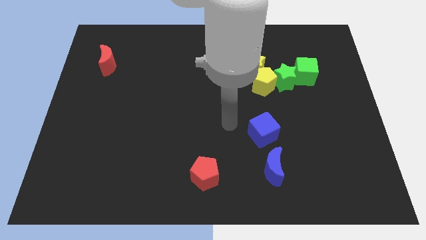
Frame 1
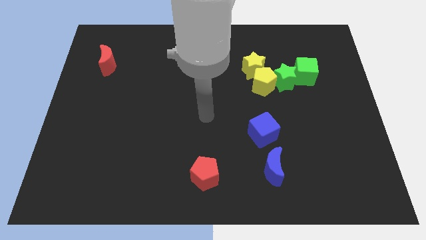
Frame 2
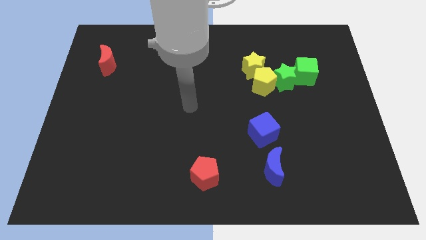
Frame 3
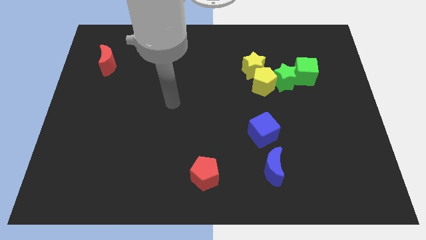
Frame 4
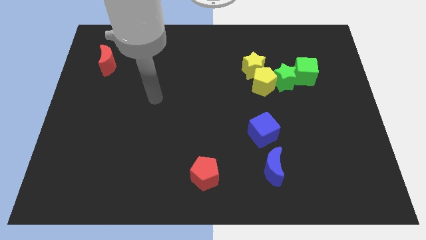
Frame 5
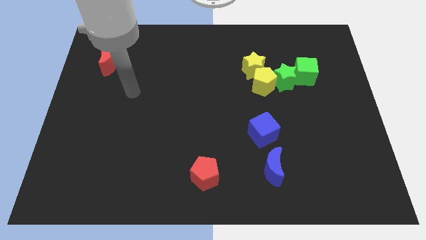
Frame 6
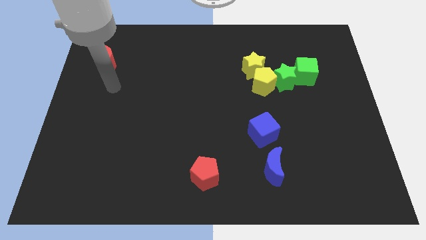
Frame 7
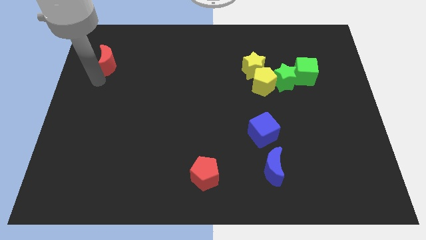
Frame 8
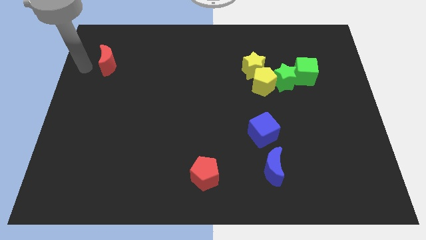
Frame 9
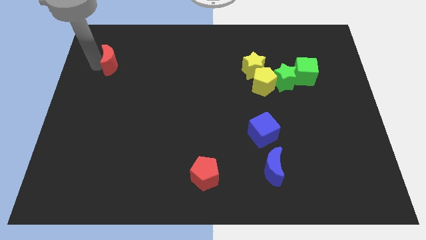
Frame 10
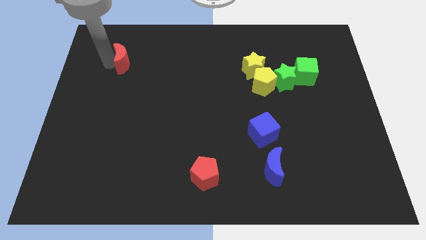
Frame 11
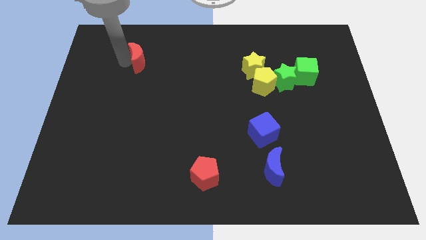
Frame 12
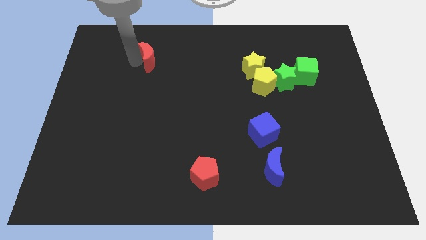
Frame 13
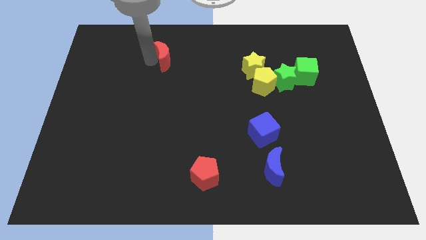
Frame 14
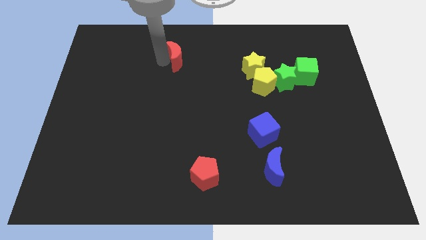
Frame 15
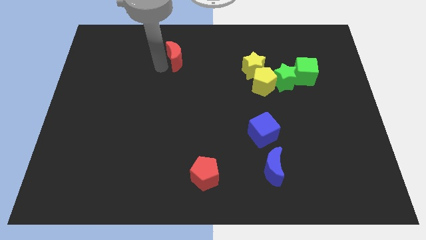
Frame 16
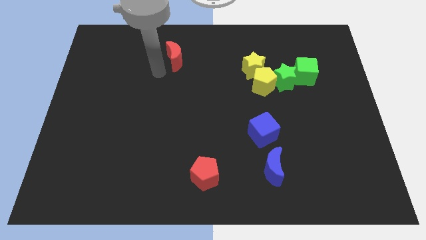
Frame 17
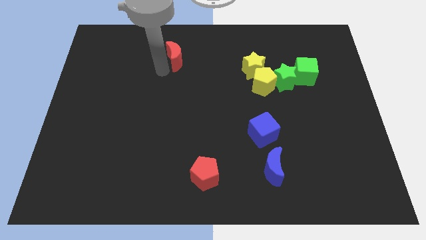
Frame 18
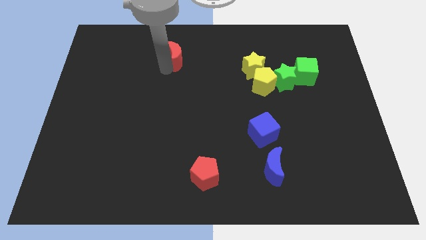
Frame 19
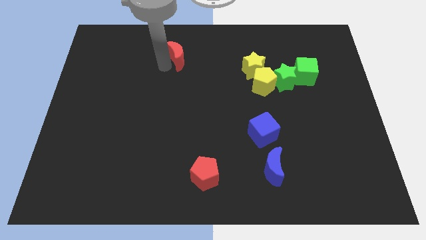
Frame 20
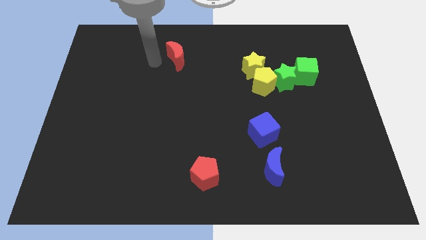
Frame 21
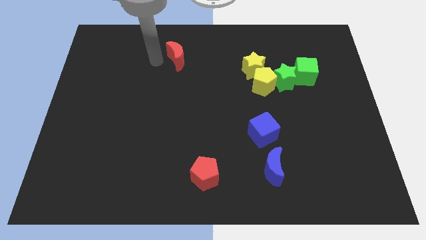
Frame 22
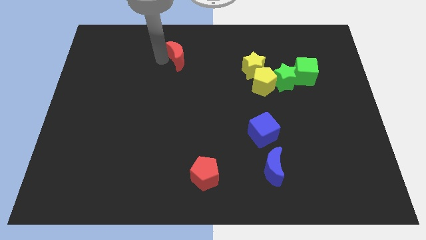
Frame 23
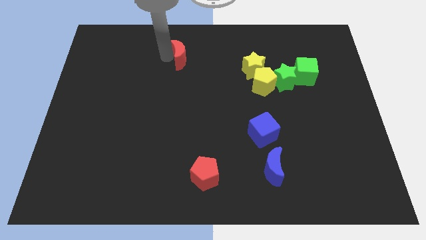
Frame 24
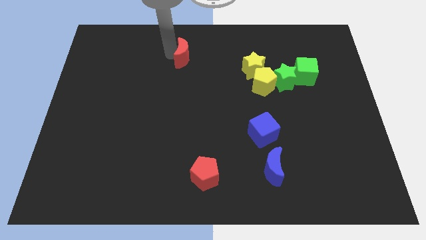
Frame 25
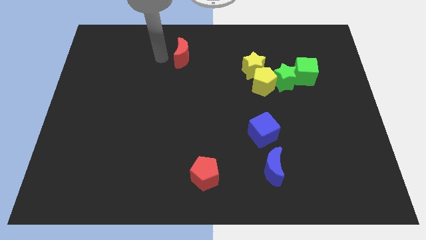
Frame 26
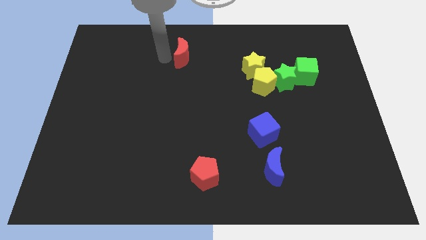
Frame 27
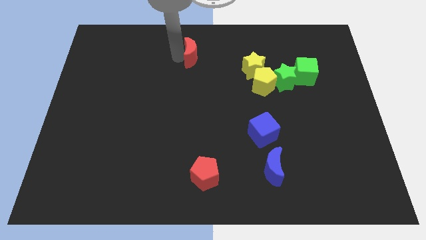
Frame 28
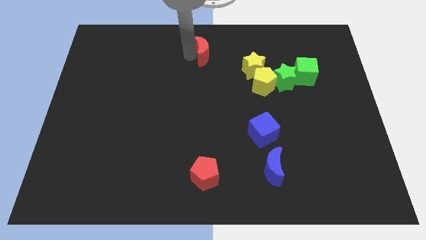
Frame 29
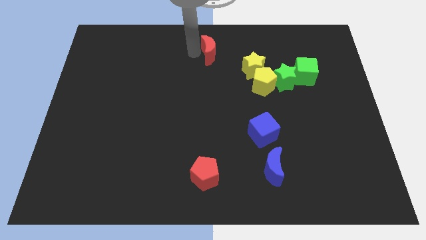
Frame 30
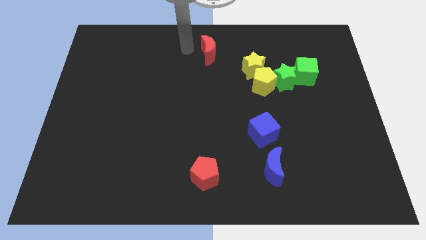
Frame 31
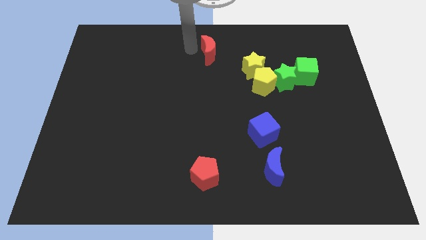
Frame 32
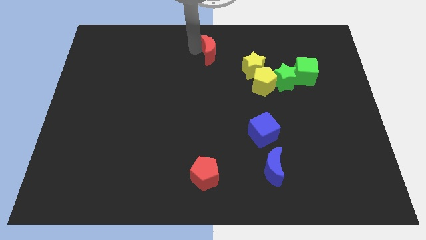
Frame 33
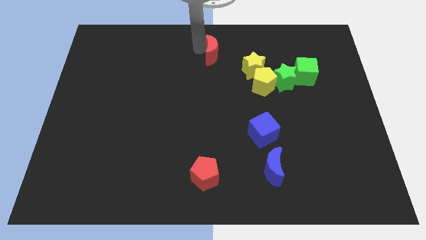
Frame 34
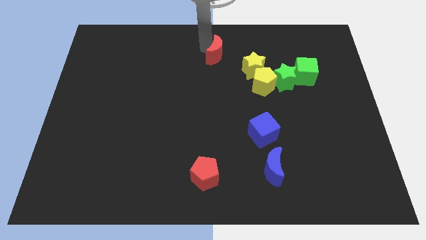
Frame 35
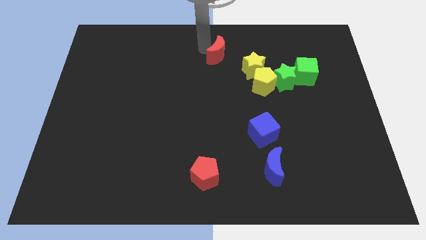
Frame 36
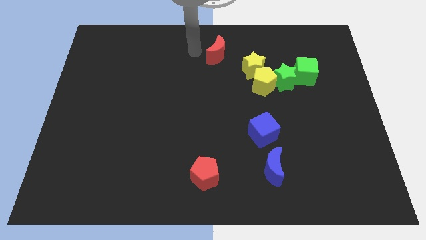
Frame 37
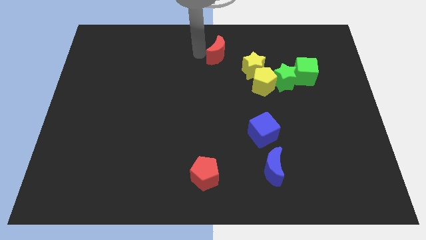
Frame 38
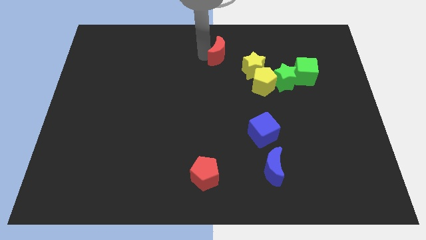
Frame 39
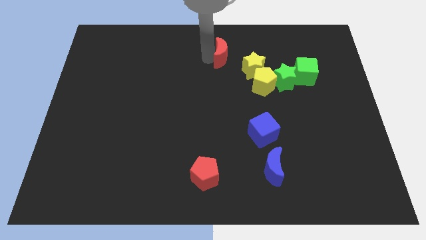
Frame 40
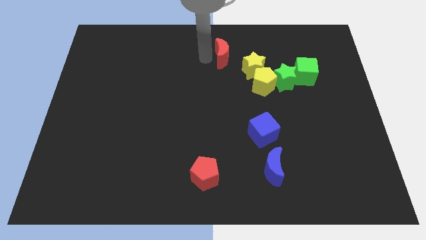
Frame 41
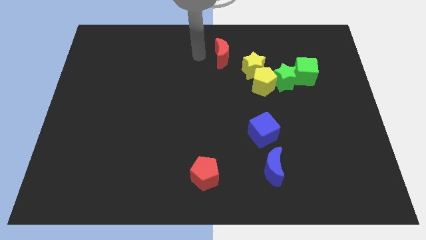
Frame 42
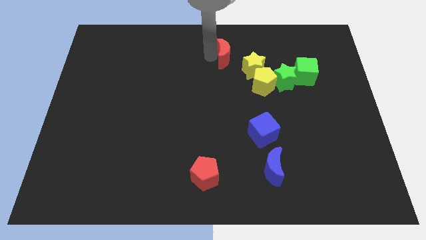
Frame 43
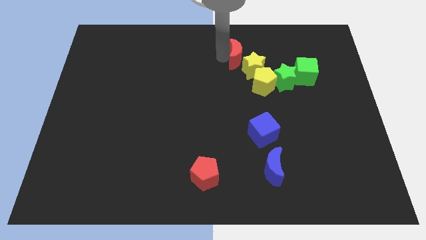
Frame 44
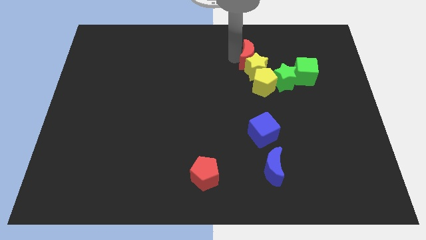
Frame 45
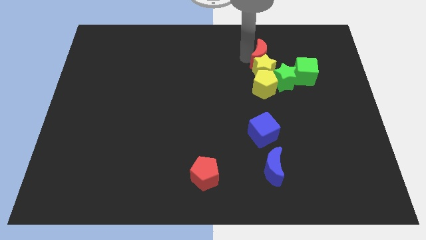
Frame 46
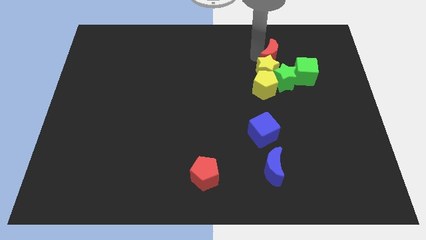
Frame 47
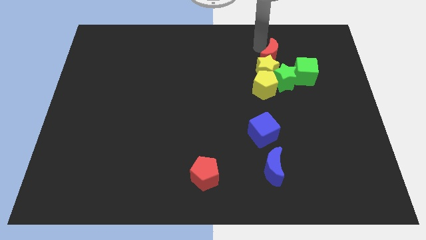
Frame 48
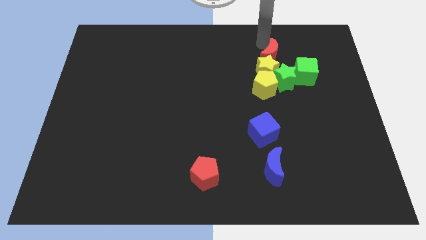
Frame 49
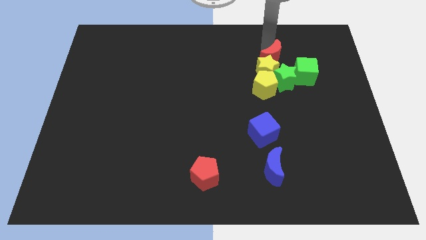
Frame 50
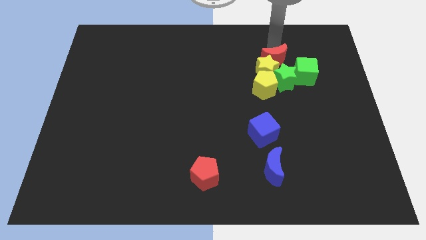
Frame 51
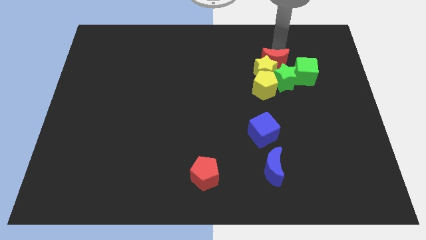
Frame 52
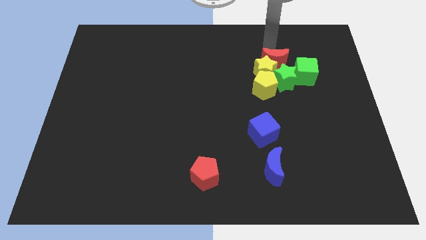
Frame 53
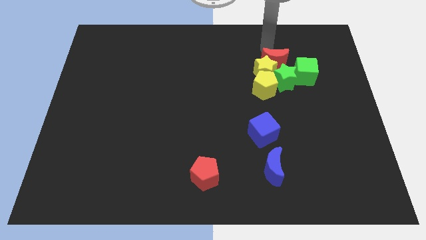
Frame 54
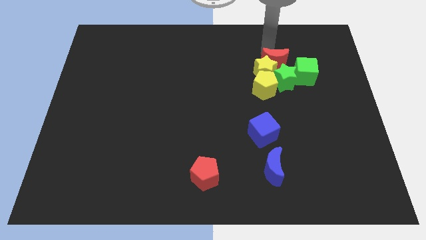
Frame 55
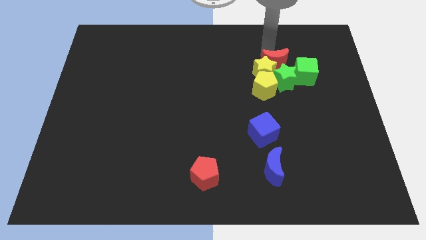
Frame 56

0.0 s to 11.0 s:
slide the red moon to the green star

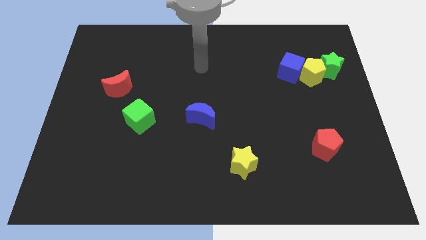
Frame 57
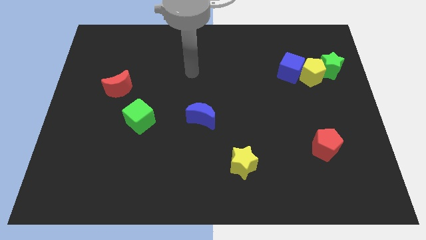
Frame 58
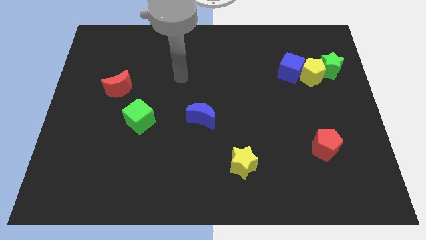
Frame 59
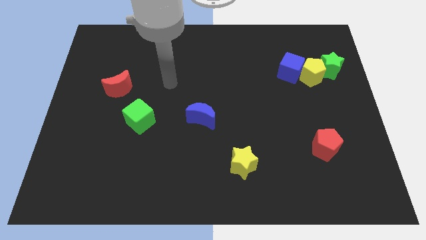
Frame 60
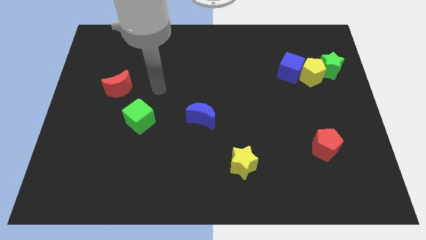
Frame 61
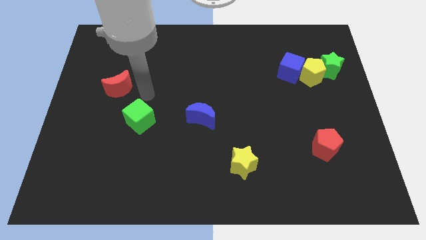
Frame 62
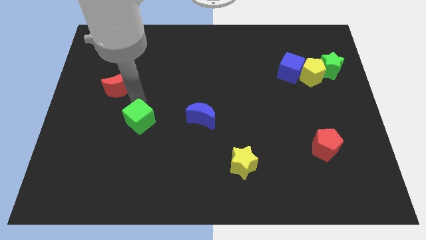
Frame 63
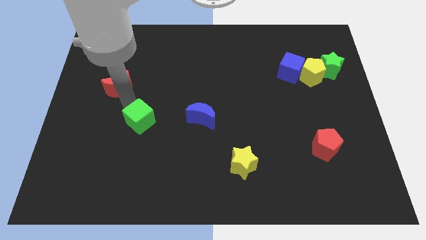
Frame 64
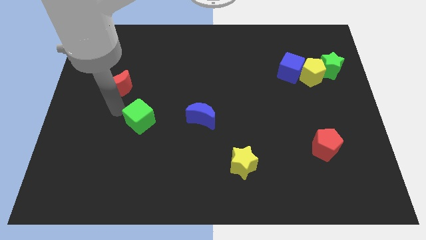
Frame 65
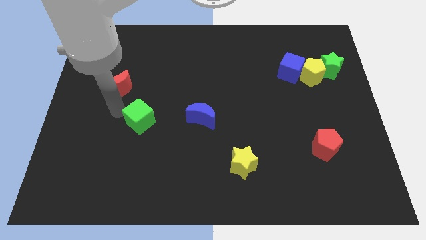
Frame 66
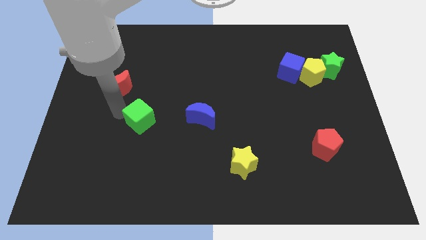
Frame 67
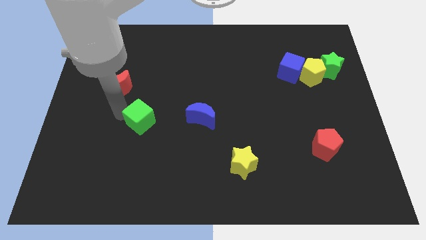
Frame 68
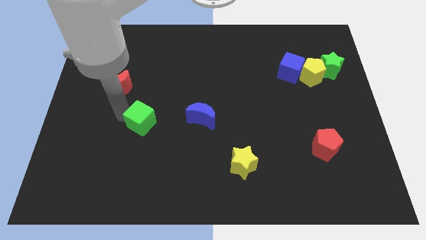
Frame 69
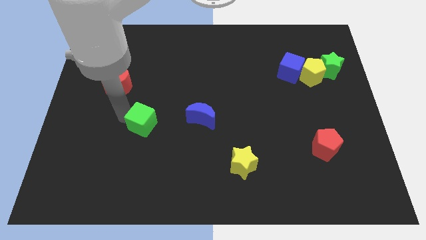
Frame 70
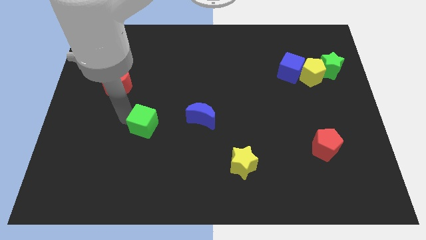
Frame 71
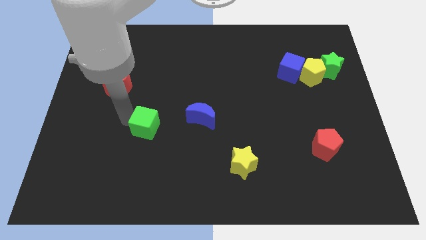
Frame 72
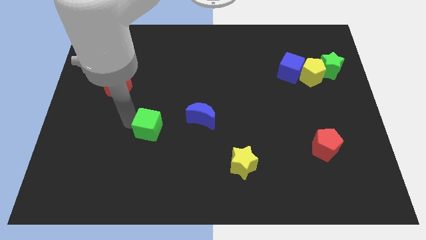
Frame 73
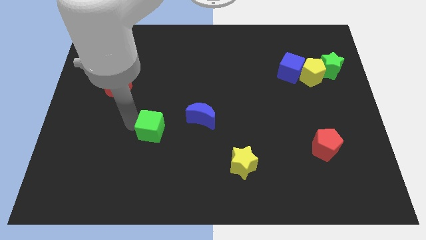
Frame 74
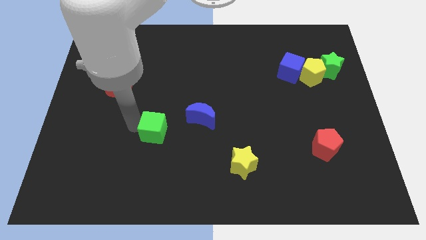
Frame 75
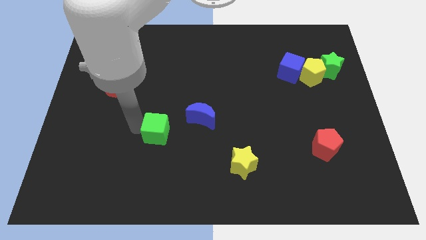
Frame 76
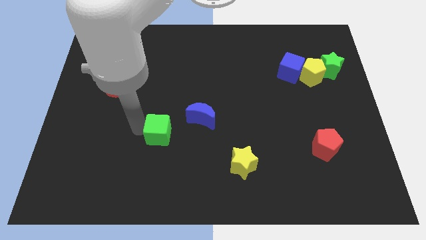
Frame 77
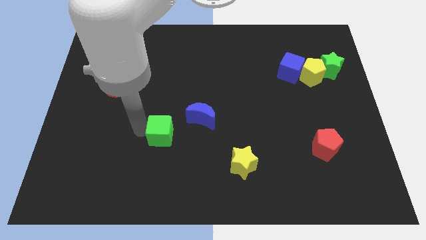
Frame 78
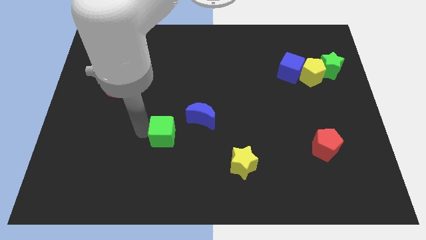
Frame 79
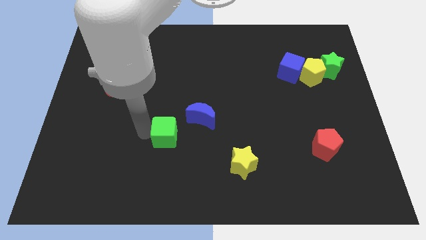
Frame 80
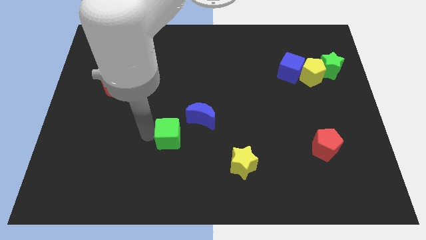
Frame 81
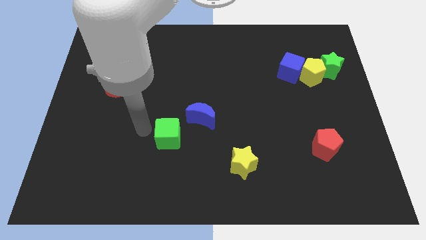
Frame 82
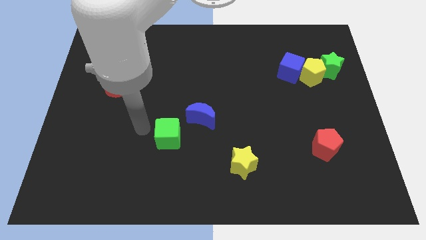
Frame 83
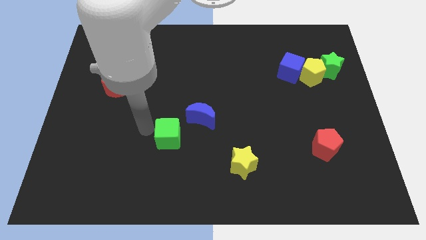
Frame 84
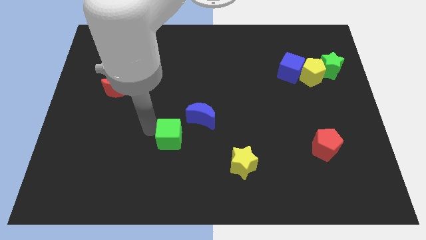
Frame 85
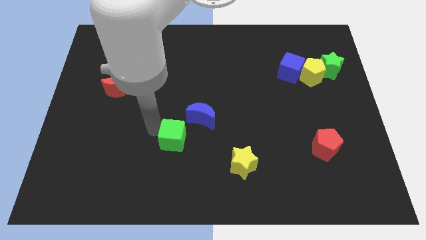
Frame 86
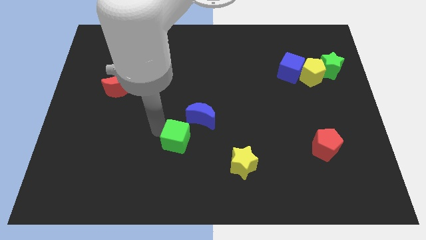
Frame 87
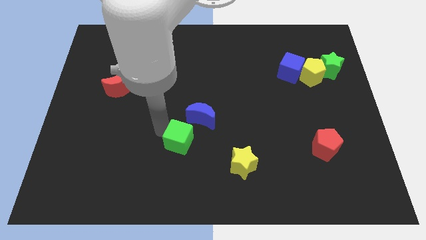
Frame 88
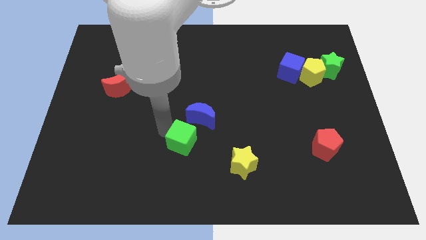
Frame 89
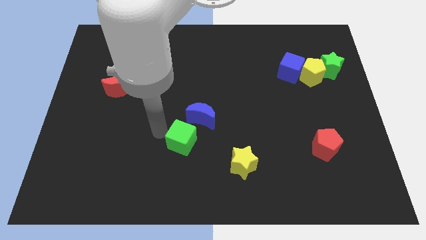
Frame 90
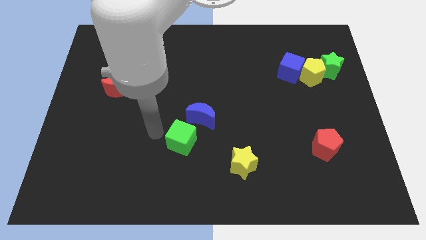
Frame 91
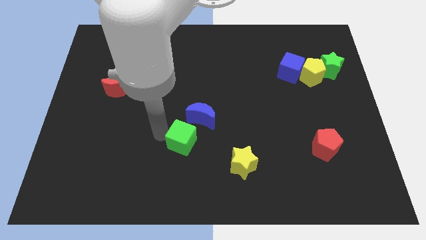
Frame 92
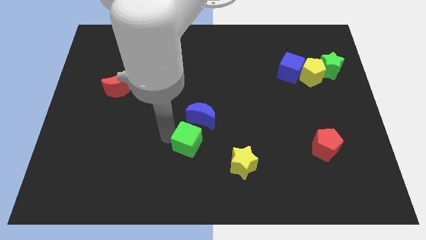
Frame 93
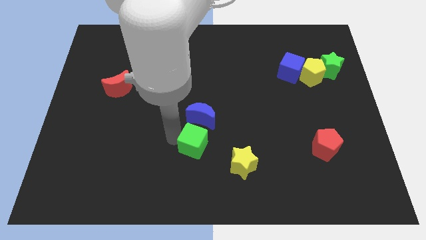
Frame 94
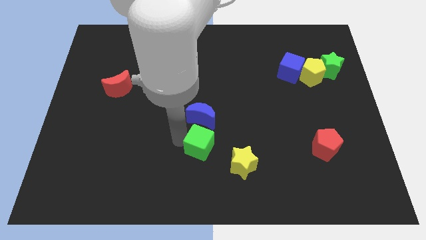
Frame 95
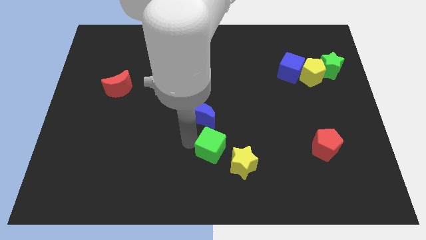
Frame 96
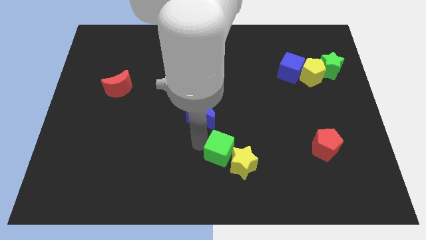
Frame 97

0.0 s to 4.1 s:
push the green cube close to the yellow star
